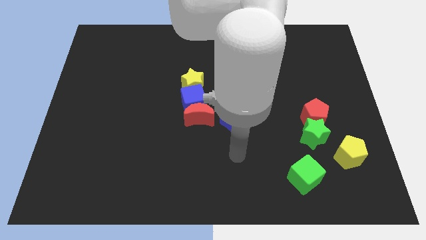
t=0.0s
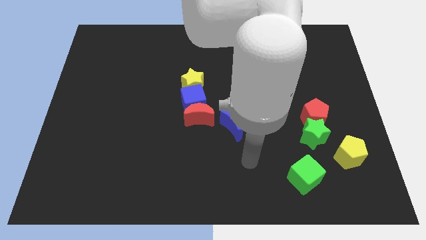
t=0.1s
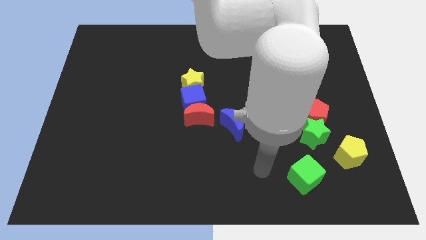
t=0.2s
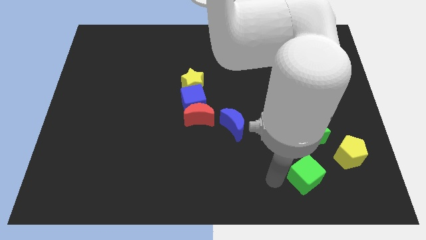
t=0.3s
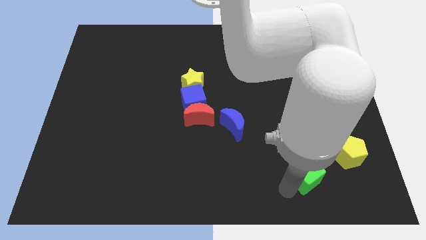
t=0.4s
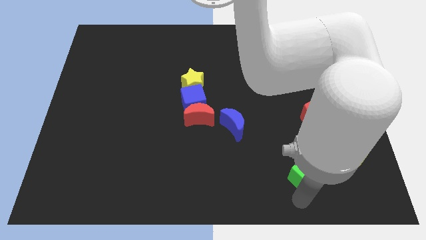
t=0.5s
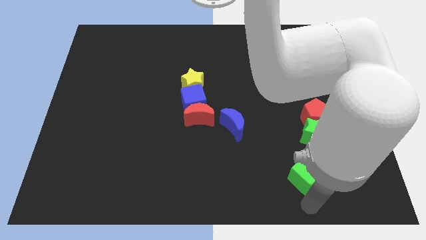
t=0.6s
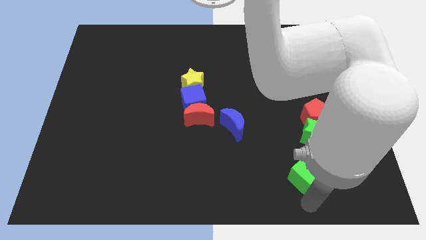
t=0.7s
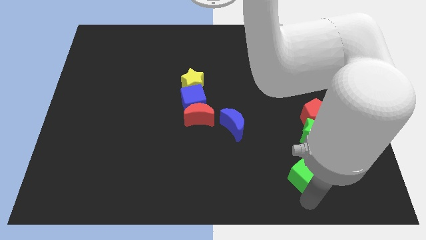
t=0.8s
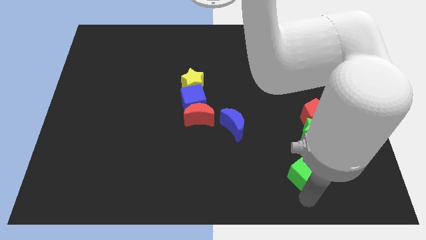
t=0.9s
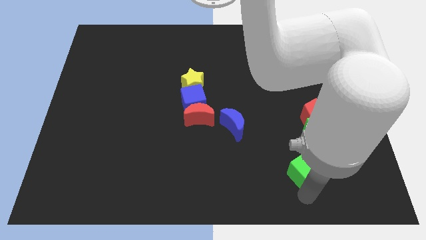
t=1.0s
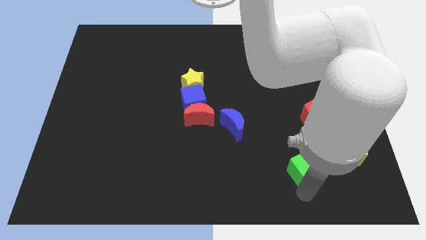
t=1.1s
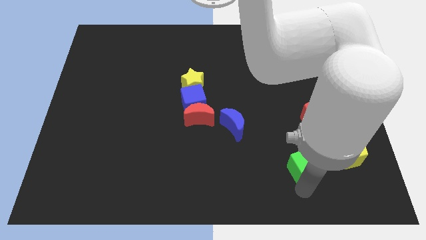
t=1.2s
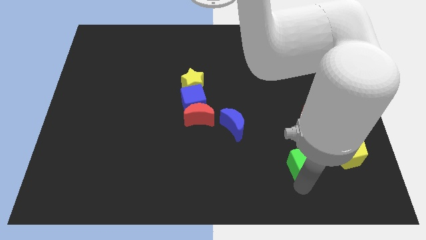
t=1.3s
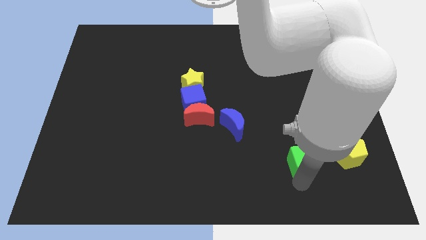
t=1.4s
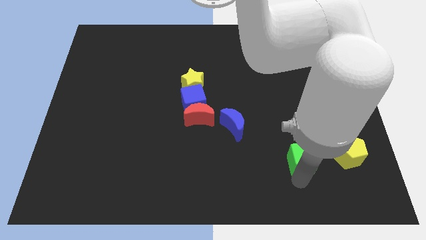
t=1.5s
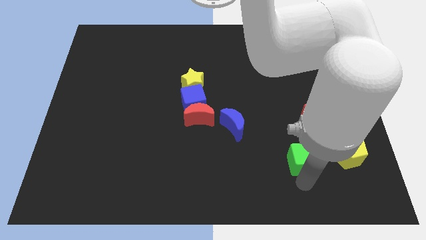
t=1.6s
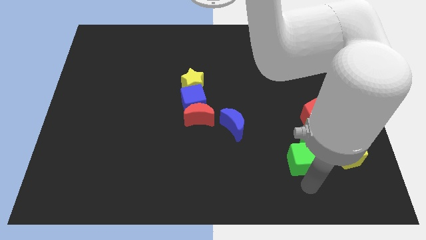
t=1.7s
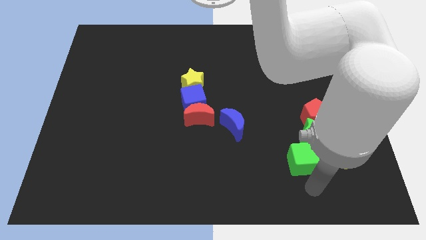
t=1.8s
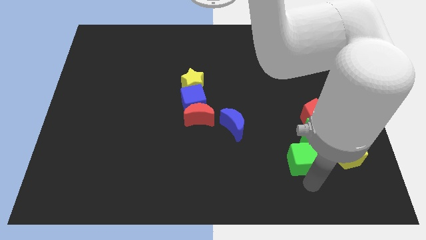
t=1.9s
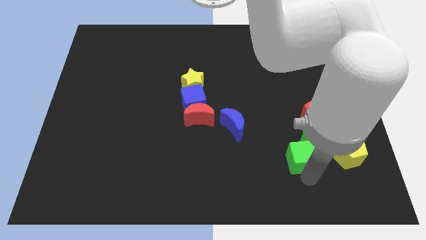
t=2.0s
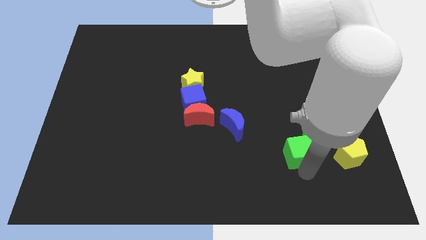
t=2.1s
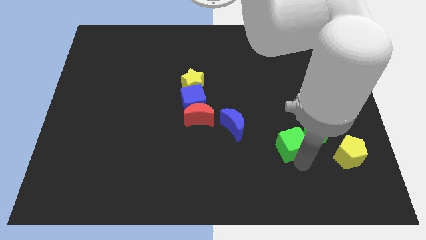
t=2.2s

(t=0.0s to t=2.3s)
slightly slide the green cube upwards

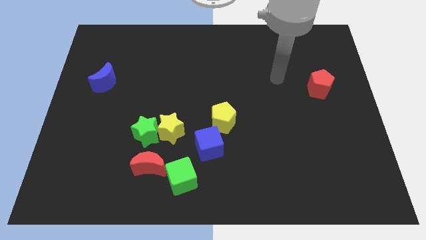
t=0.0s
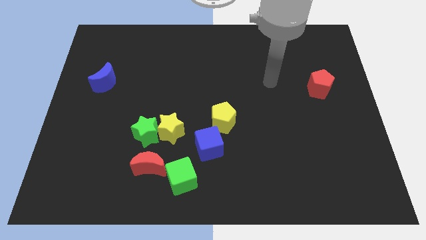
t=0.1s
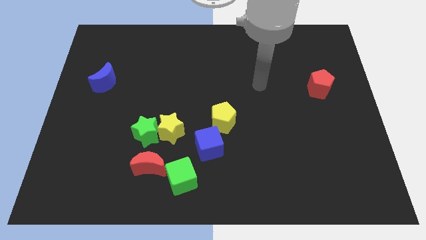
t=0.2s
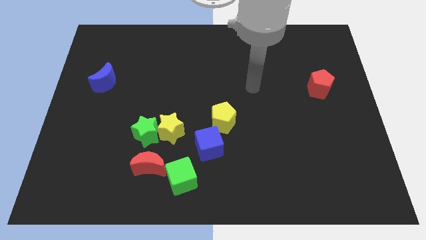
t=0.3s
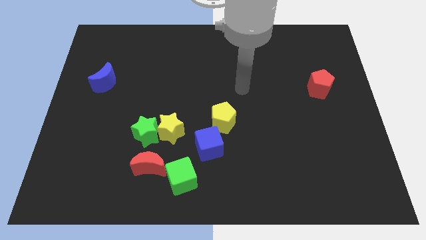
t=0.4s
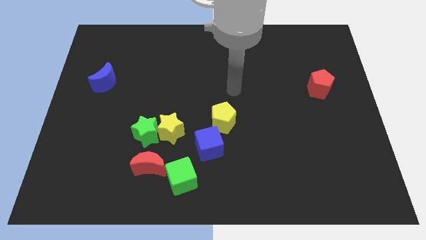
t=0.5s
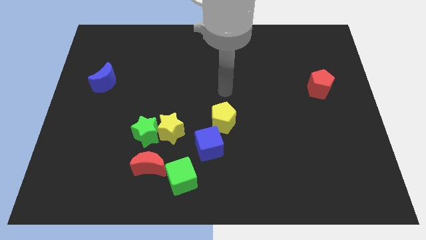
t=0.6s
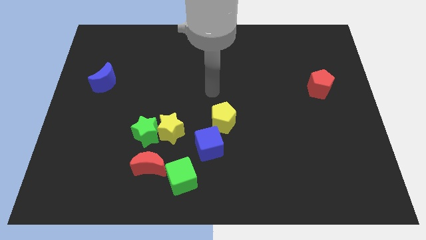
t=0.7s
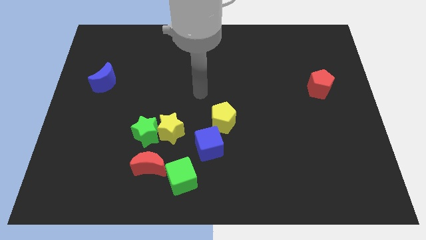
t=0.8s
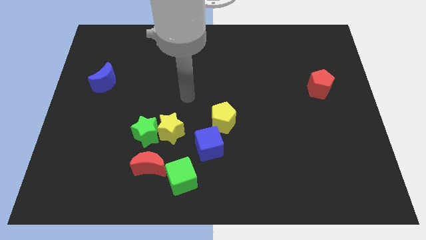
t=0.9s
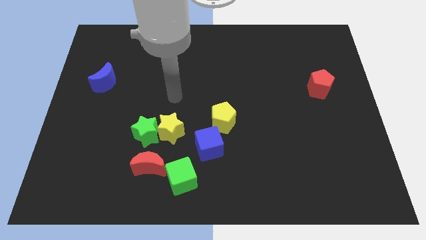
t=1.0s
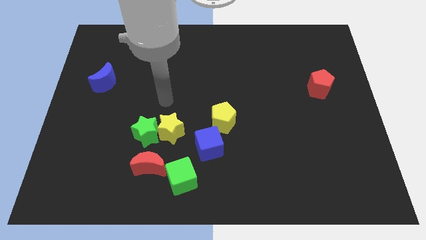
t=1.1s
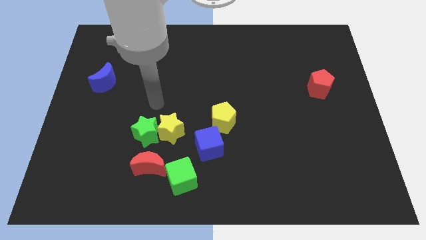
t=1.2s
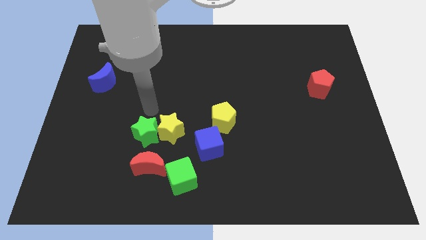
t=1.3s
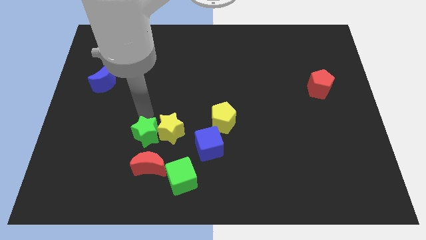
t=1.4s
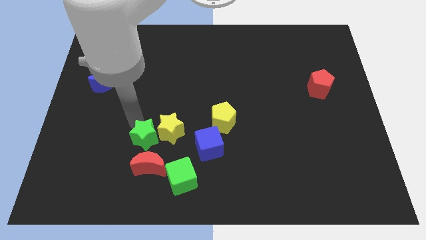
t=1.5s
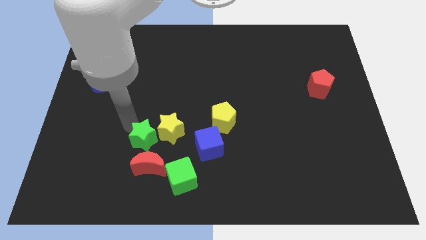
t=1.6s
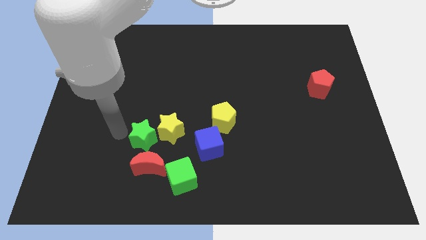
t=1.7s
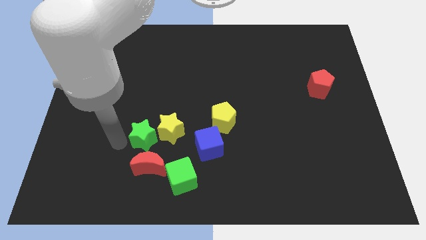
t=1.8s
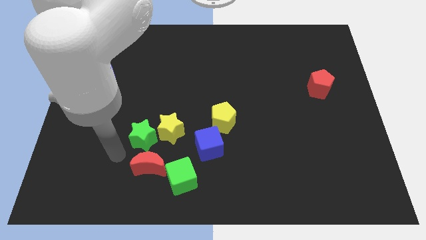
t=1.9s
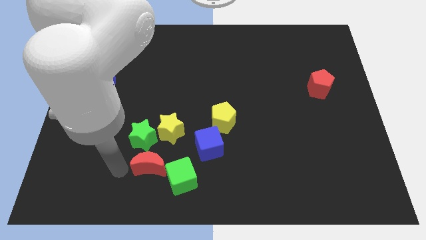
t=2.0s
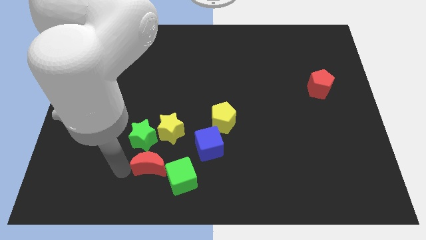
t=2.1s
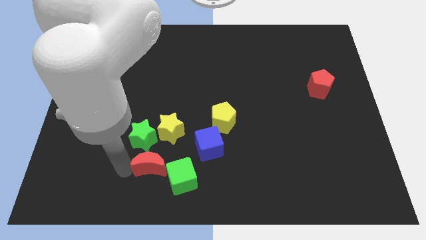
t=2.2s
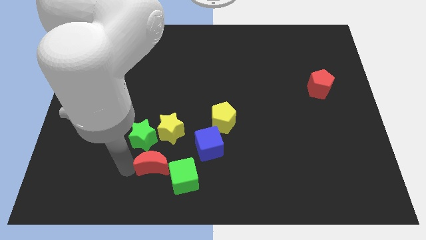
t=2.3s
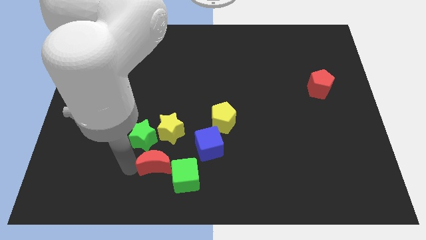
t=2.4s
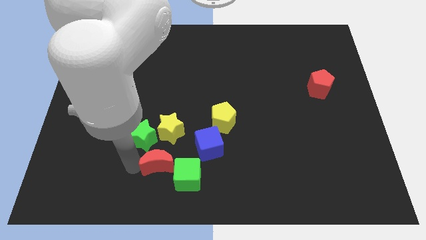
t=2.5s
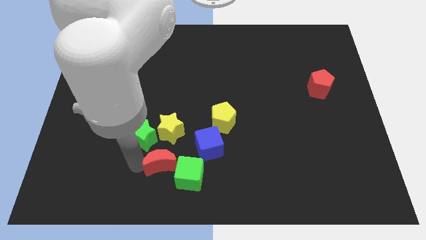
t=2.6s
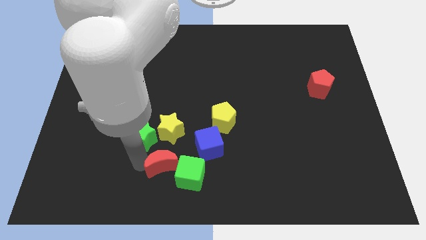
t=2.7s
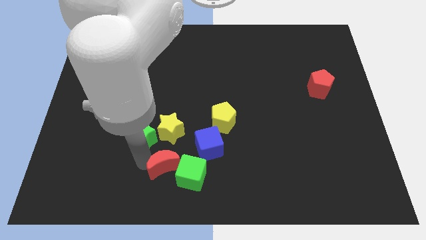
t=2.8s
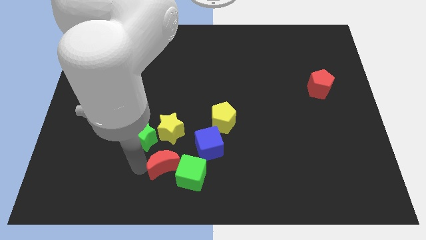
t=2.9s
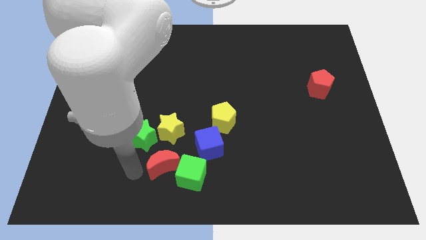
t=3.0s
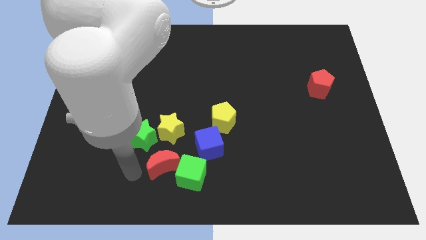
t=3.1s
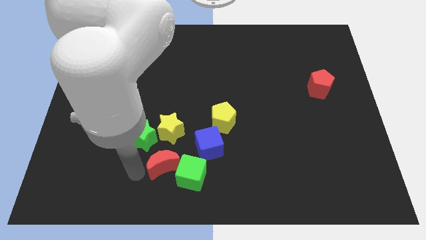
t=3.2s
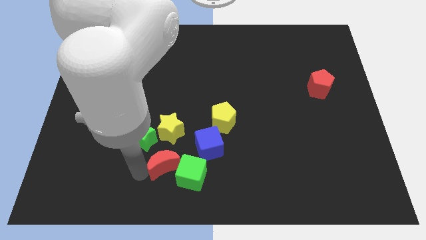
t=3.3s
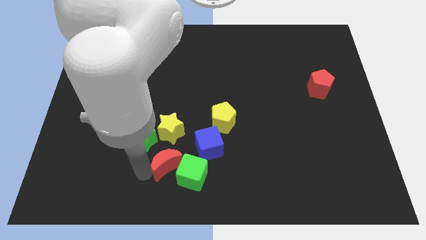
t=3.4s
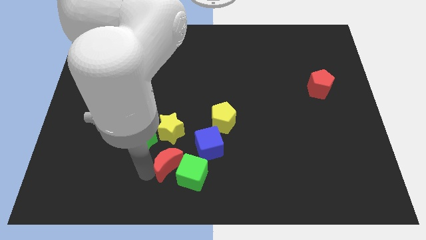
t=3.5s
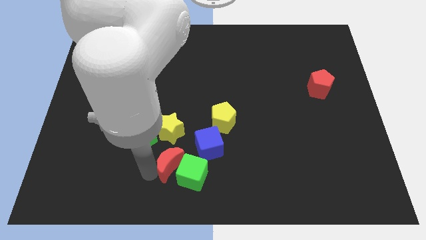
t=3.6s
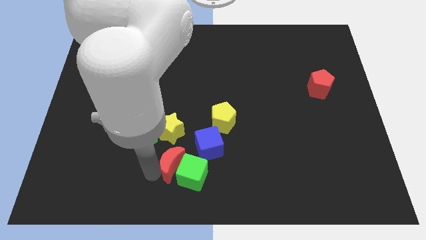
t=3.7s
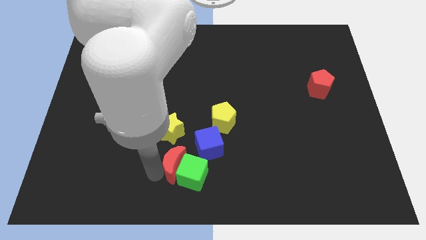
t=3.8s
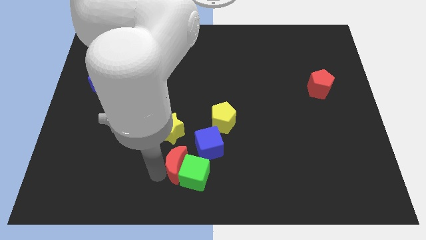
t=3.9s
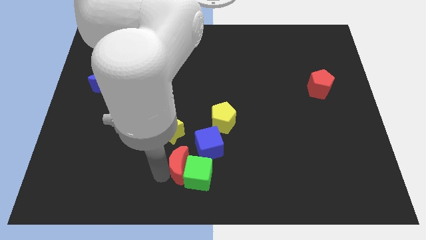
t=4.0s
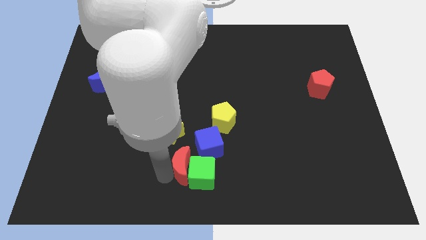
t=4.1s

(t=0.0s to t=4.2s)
move the red moon somewhat to the right

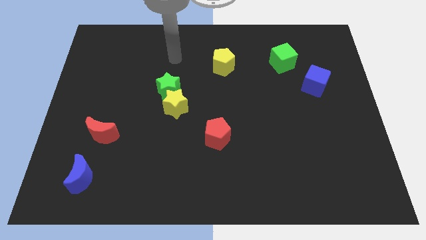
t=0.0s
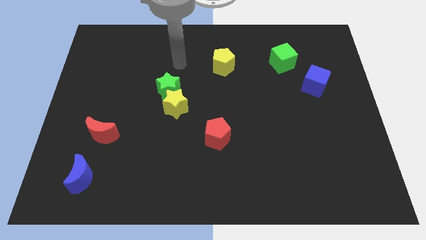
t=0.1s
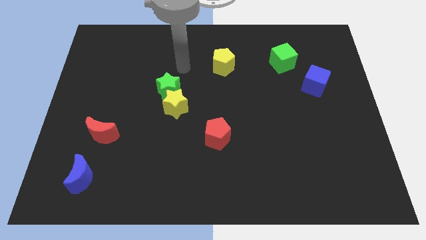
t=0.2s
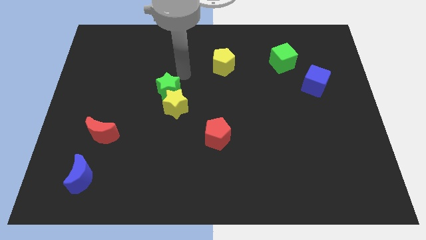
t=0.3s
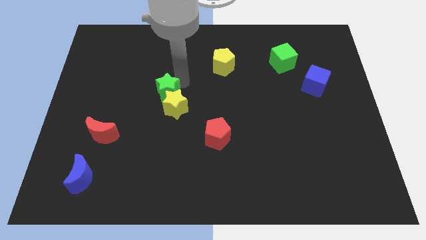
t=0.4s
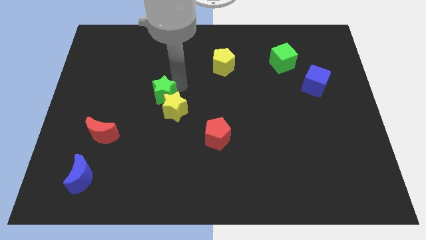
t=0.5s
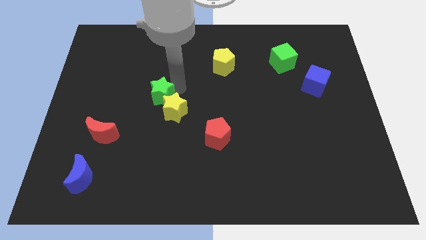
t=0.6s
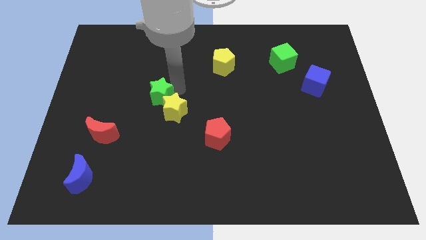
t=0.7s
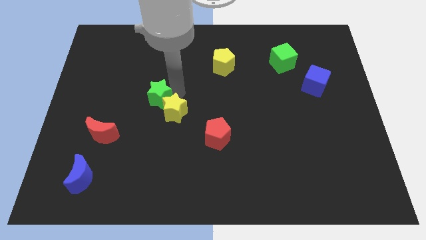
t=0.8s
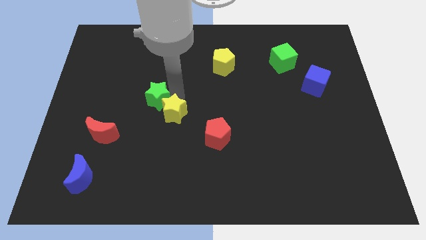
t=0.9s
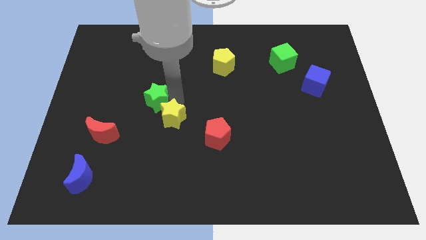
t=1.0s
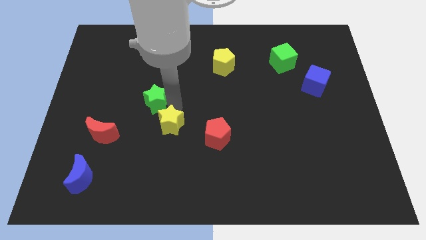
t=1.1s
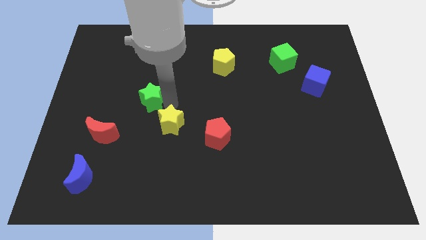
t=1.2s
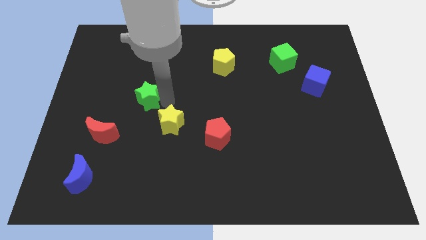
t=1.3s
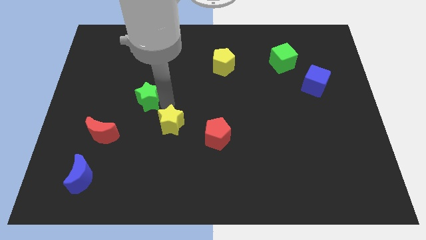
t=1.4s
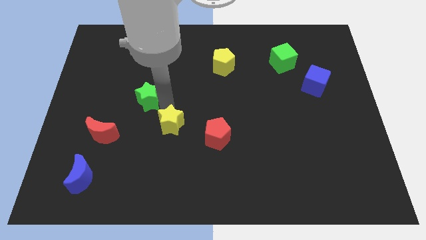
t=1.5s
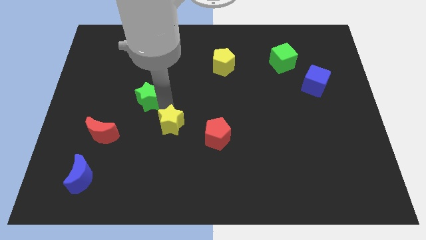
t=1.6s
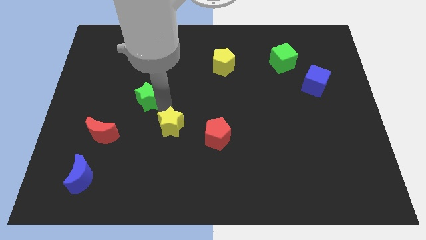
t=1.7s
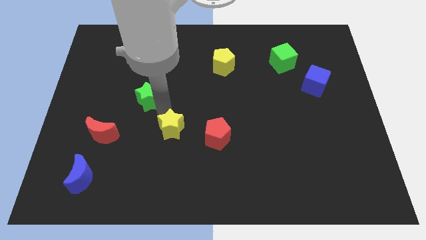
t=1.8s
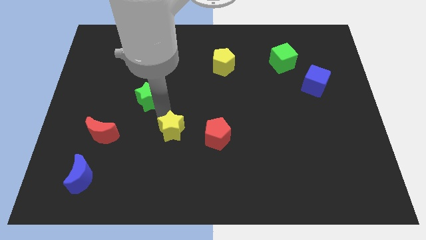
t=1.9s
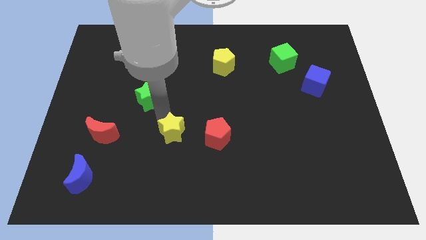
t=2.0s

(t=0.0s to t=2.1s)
slide the yellow star a bit downwards
